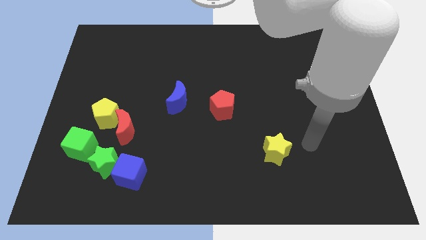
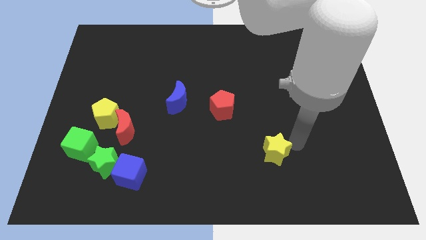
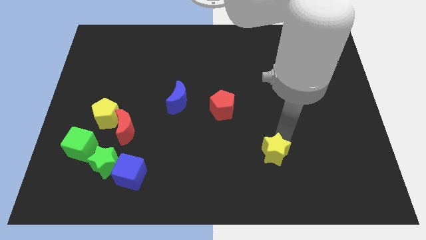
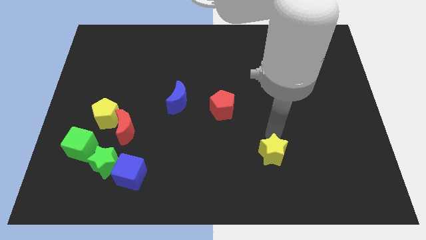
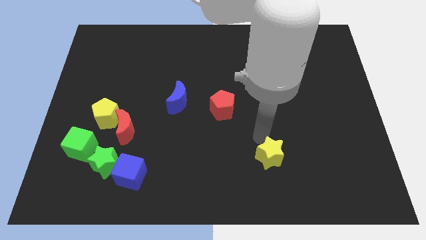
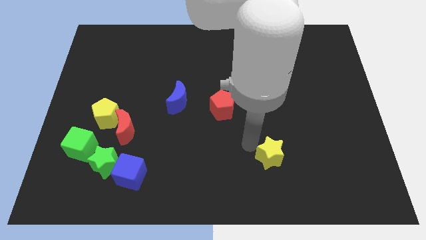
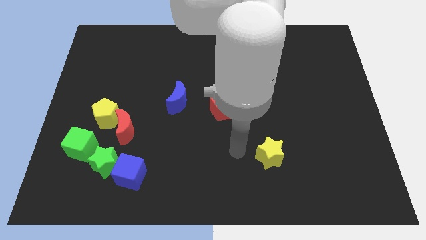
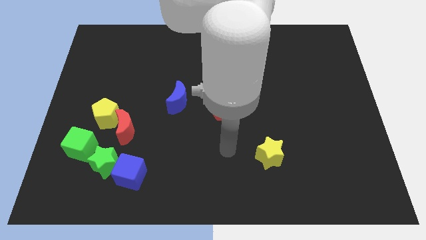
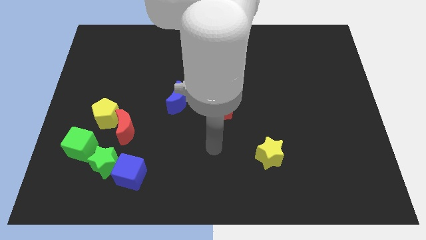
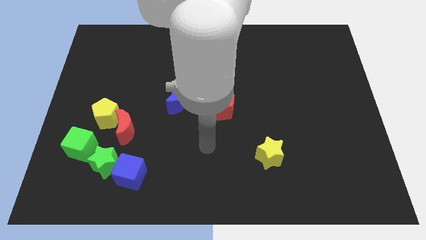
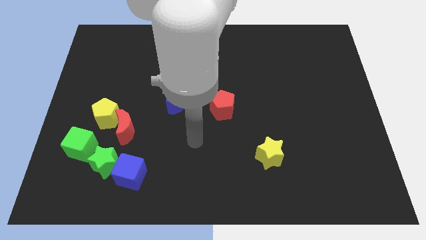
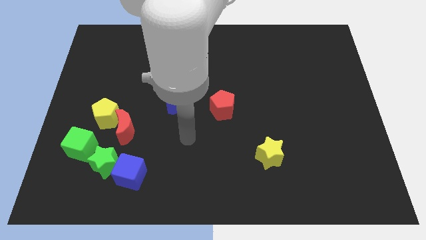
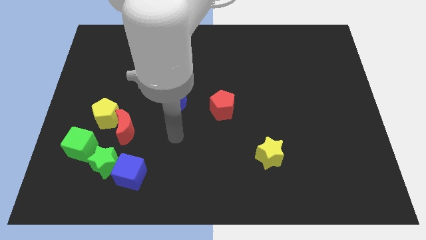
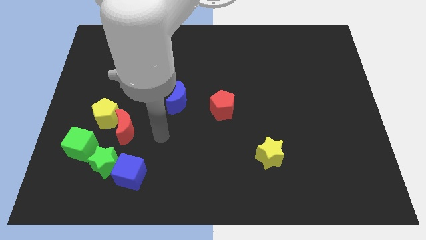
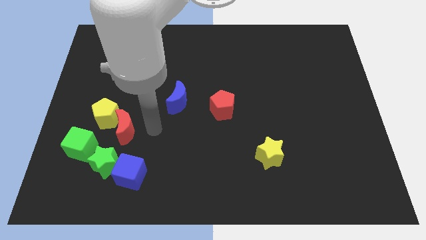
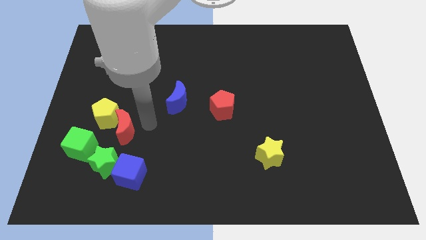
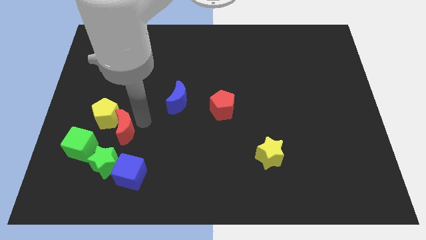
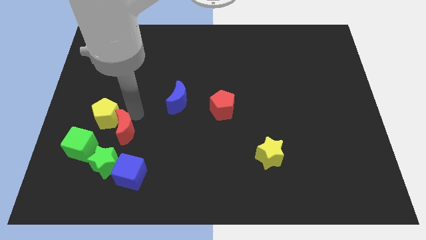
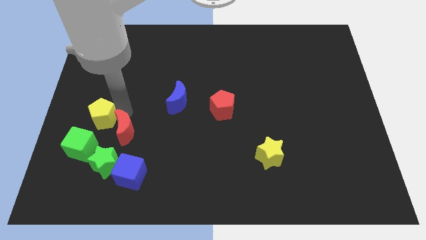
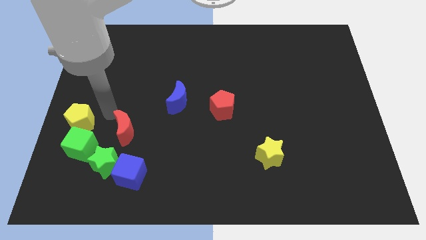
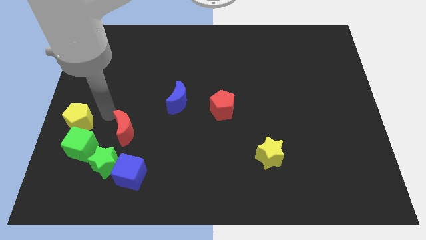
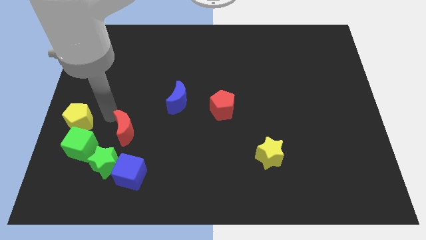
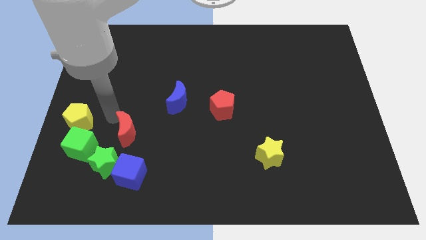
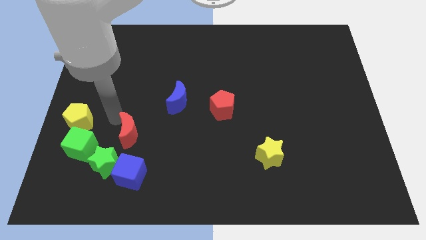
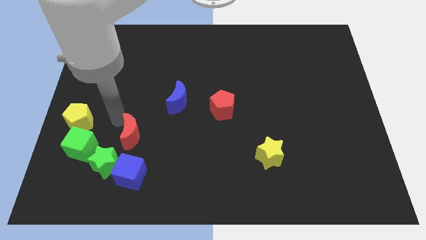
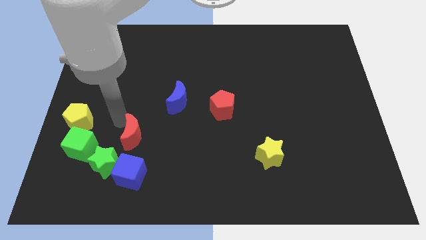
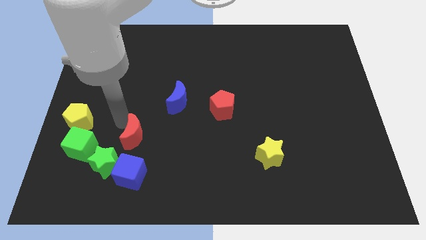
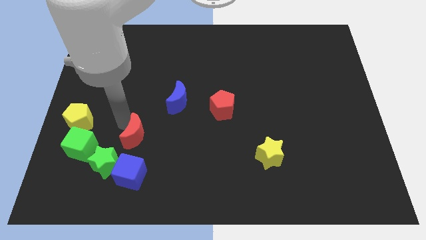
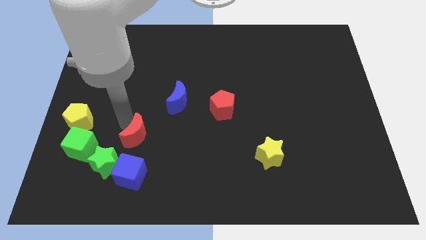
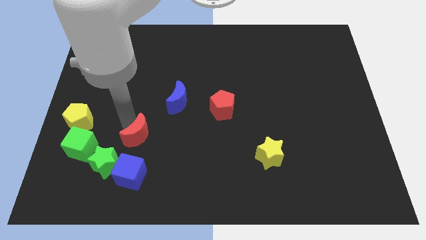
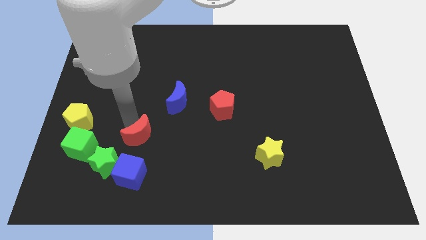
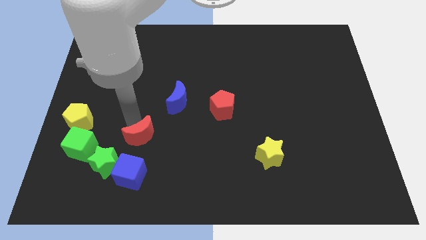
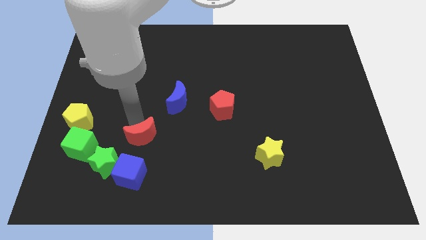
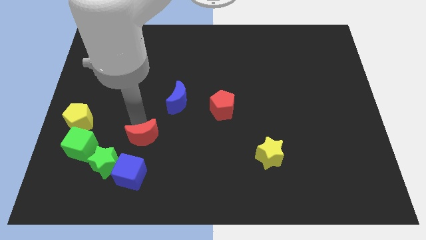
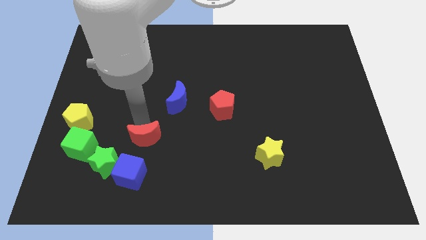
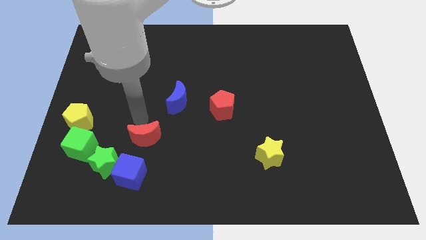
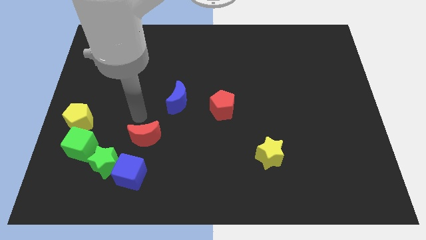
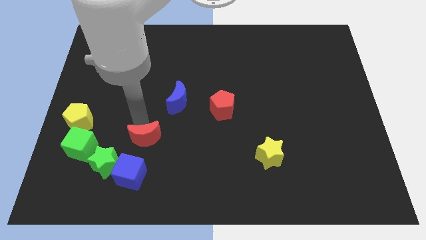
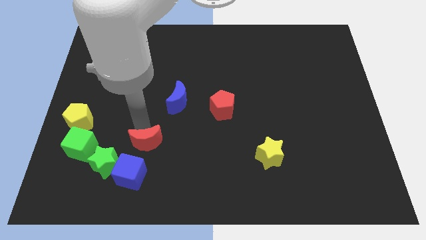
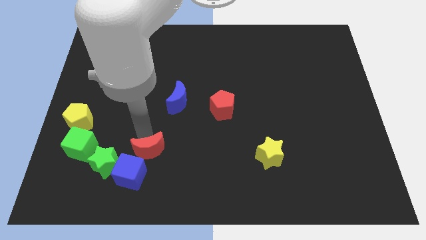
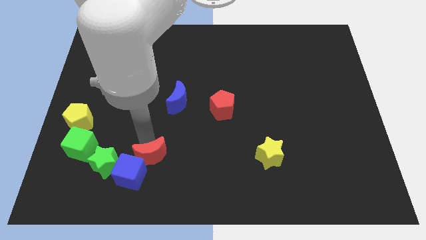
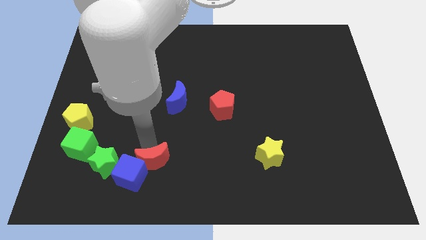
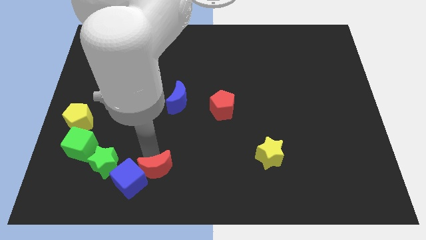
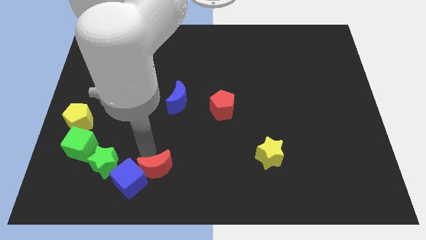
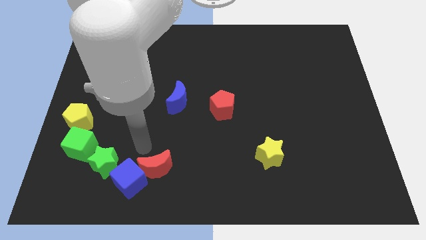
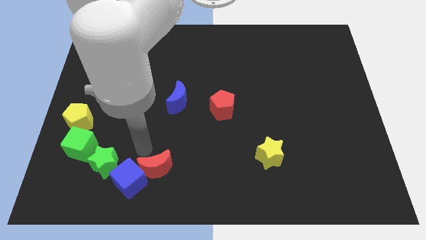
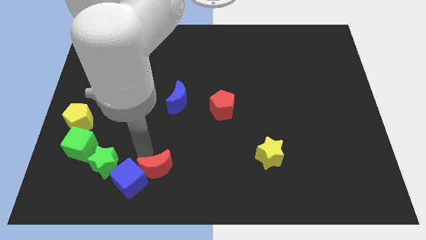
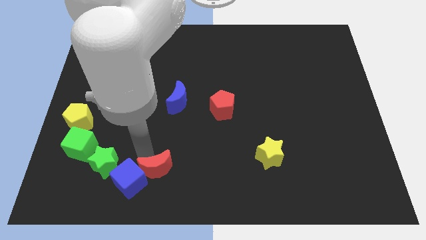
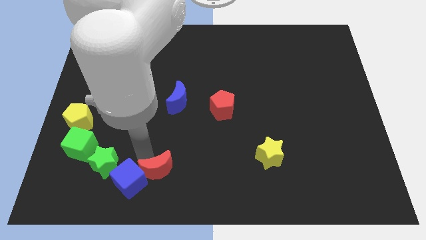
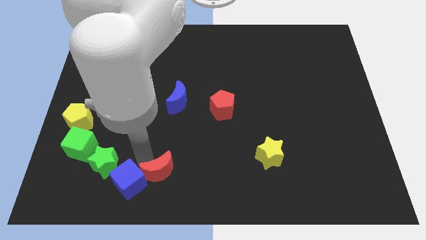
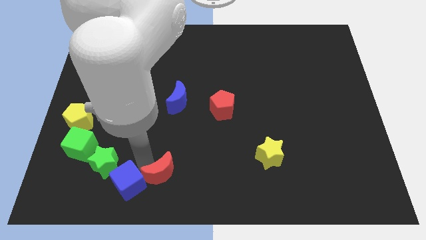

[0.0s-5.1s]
put the red moon to the bottom side

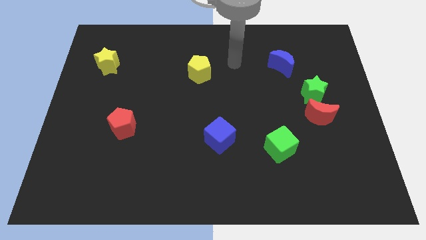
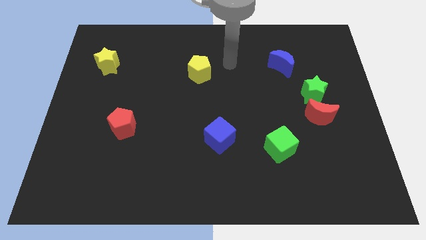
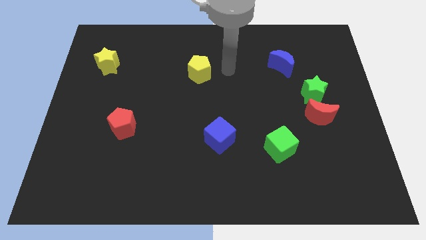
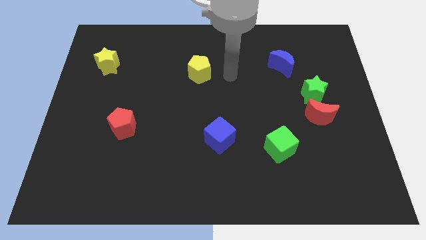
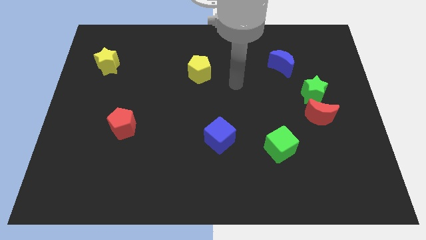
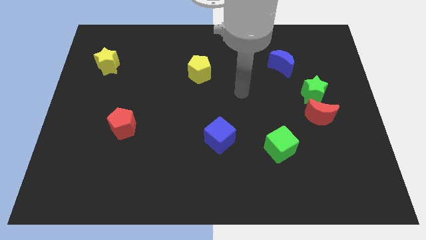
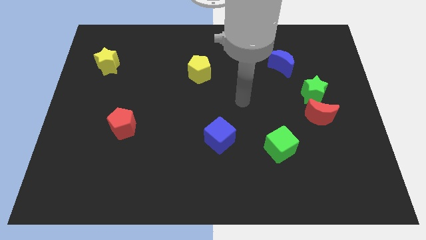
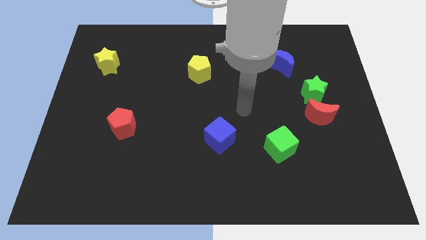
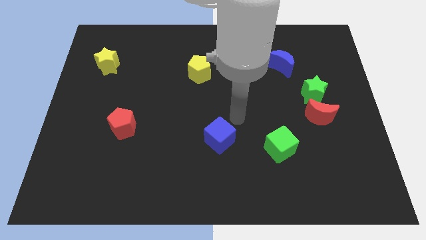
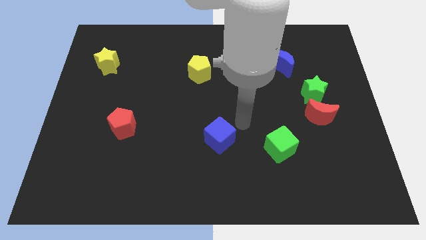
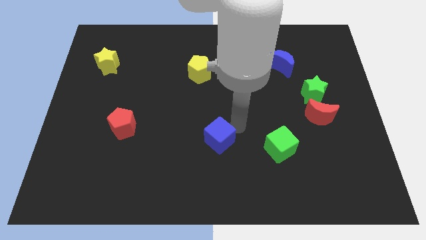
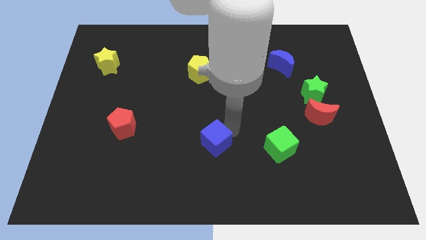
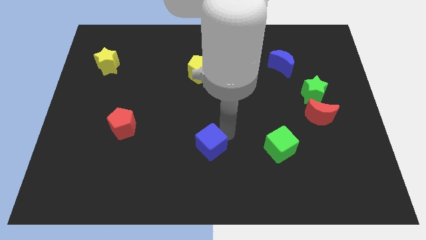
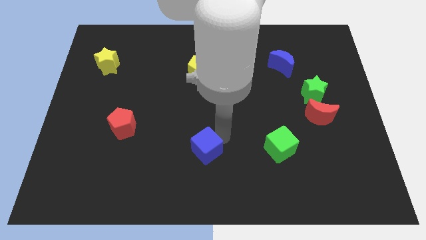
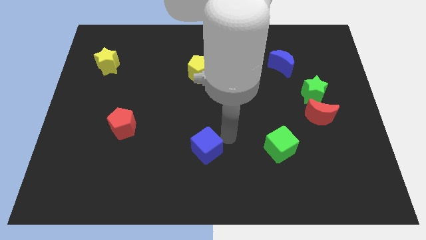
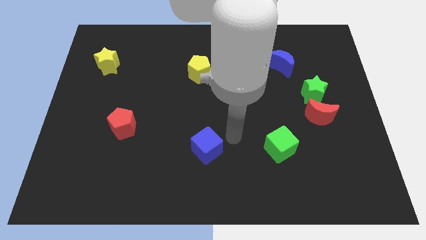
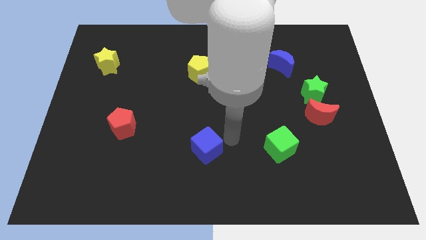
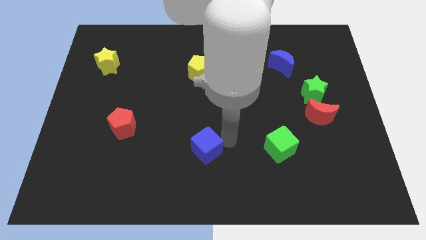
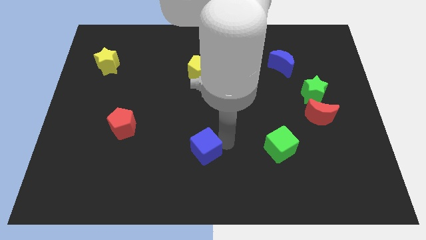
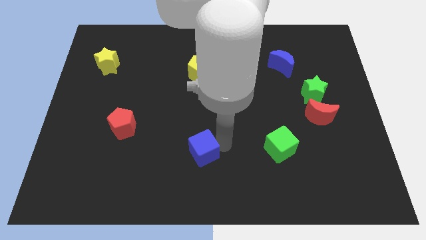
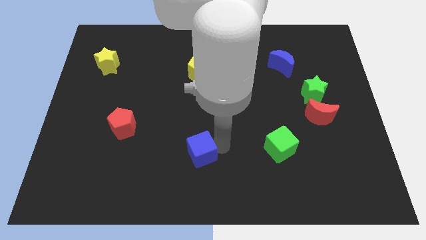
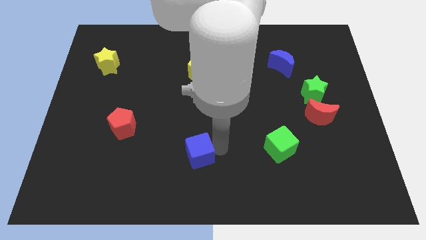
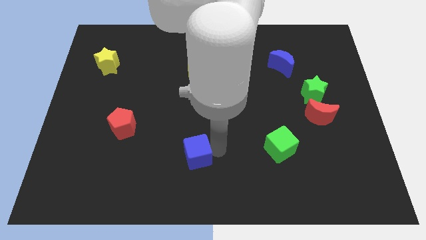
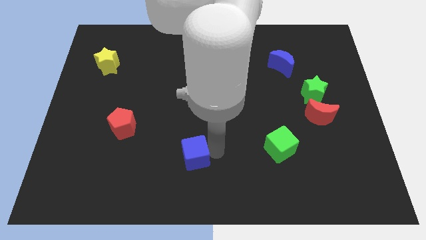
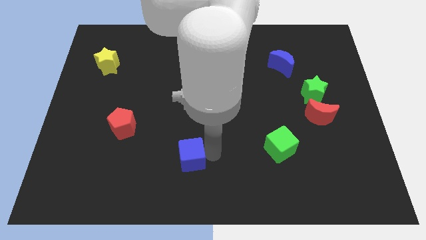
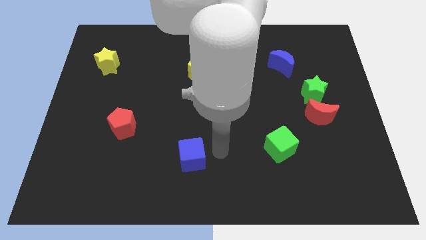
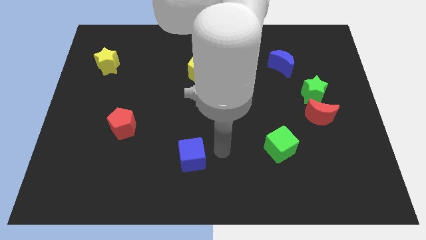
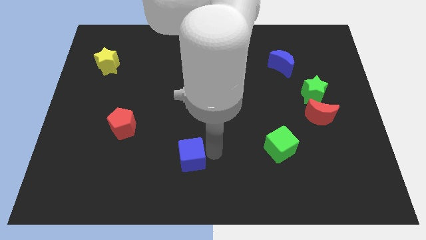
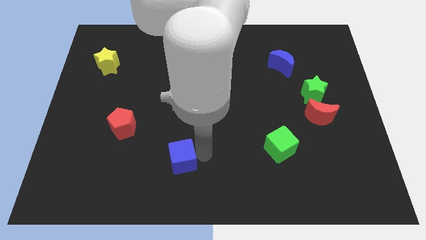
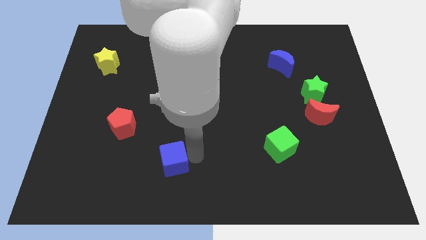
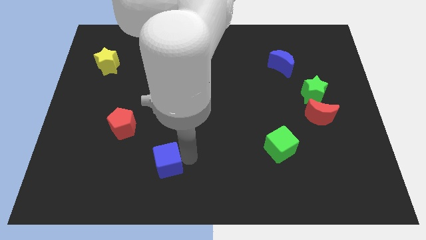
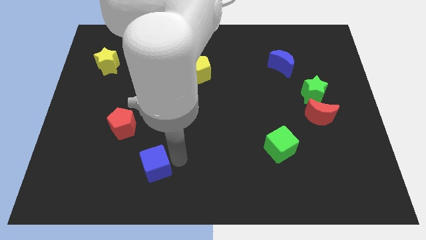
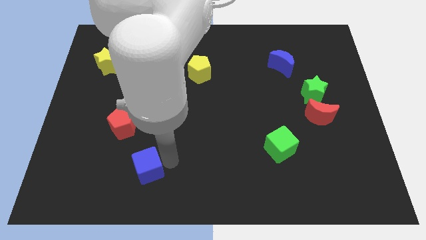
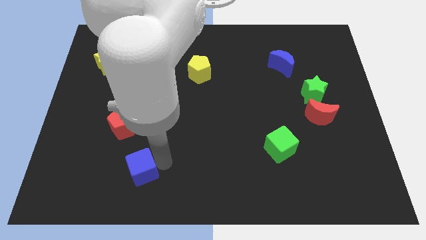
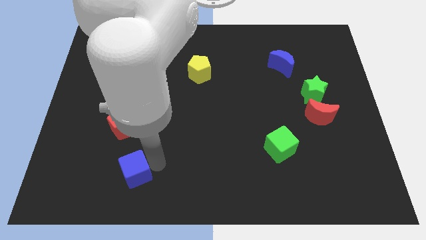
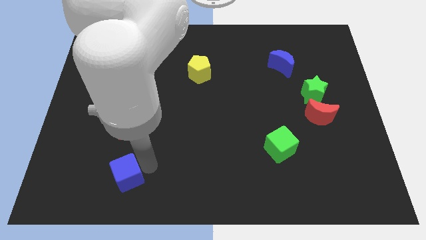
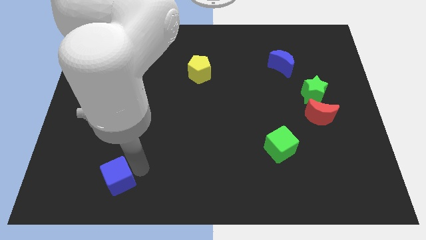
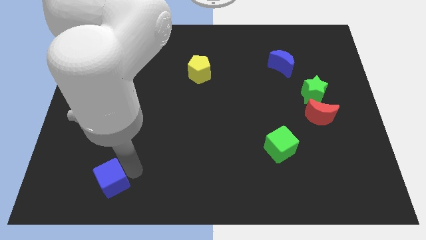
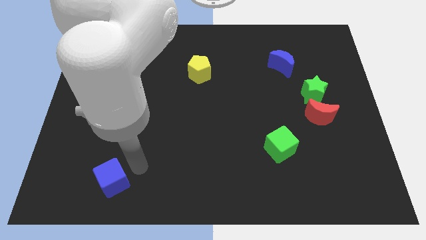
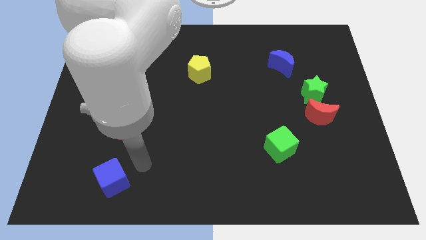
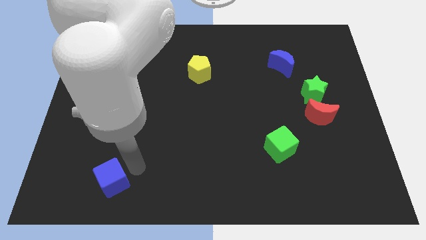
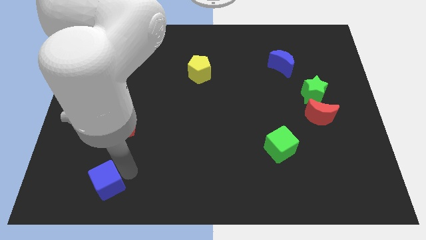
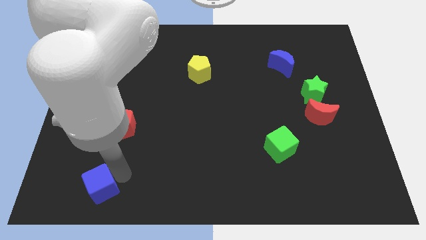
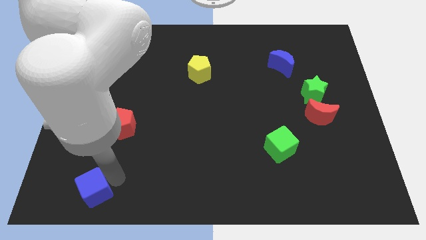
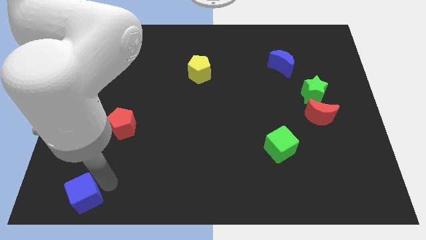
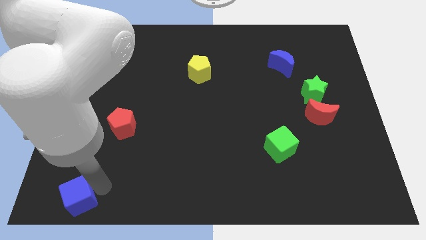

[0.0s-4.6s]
slide the blue cube to the bottom left corner
